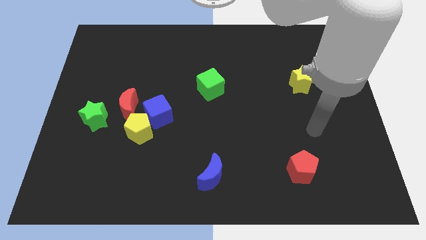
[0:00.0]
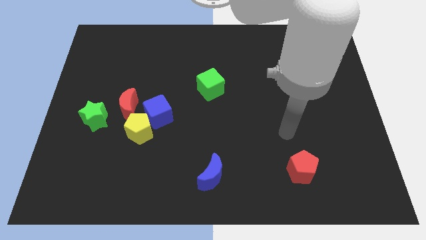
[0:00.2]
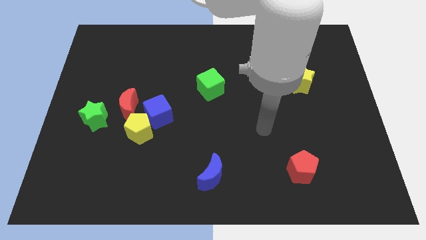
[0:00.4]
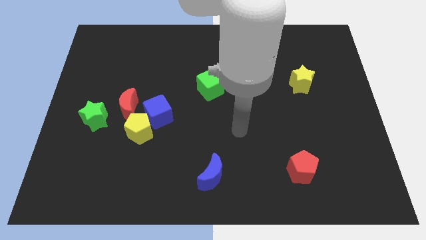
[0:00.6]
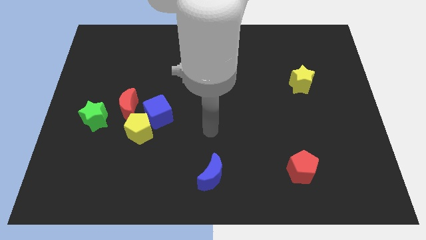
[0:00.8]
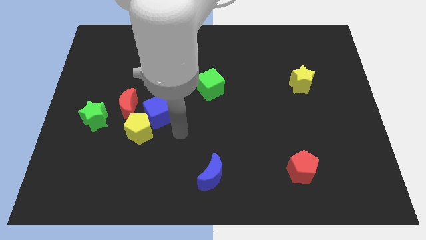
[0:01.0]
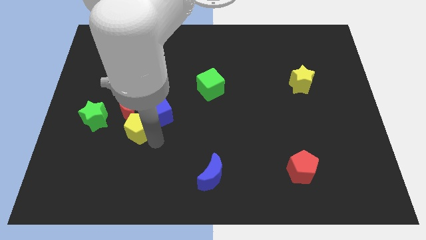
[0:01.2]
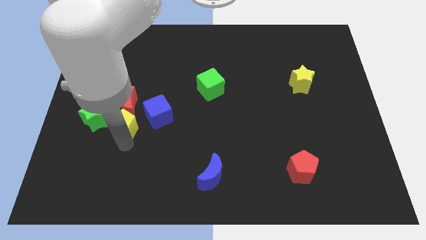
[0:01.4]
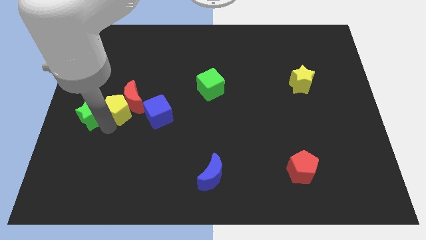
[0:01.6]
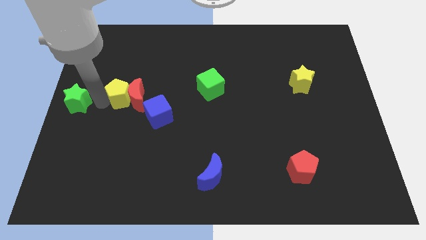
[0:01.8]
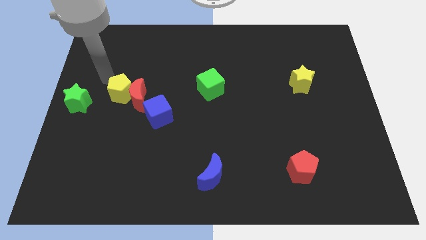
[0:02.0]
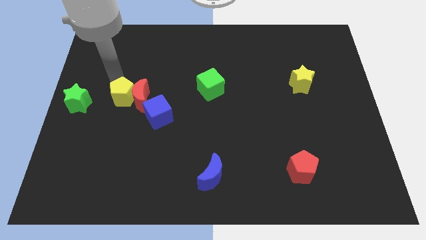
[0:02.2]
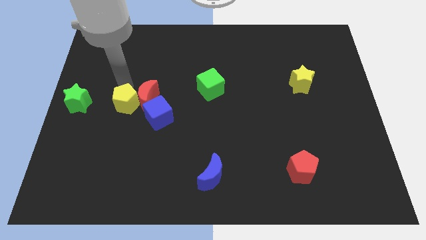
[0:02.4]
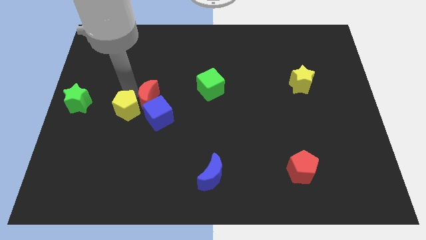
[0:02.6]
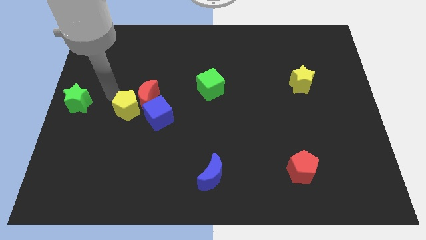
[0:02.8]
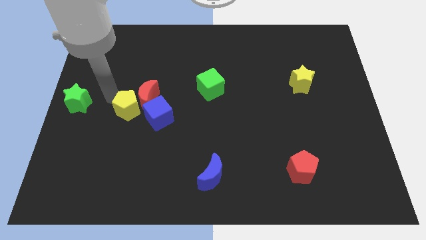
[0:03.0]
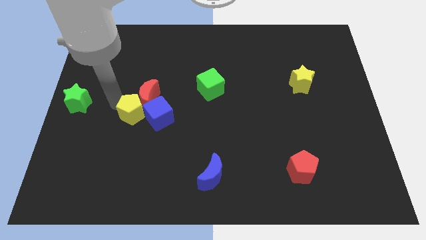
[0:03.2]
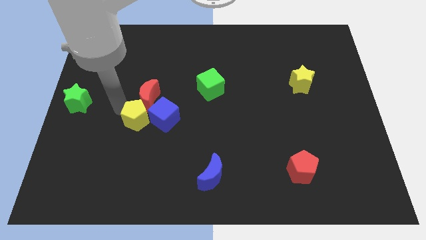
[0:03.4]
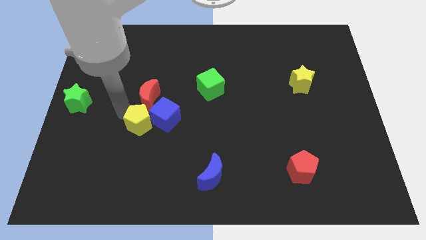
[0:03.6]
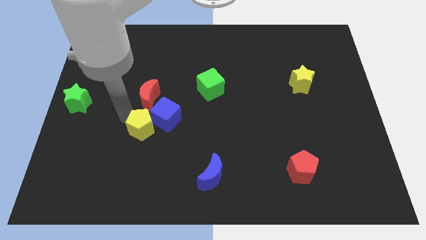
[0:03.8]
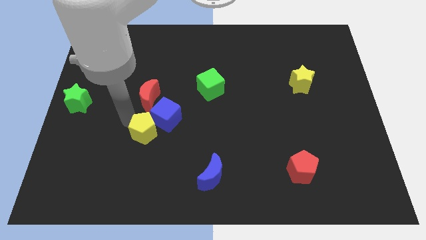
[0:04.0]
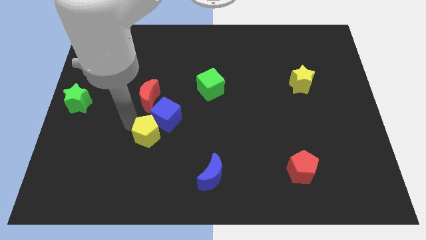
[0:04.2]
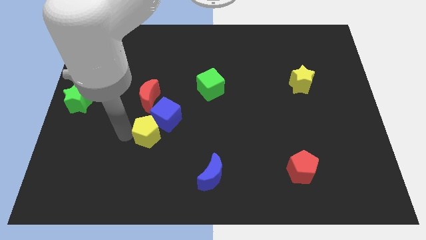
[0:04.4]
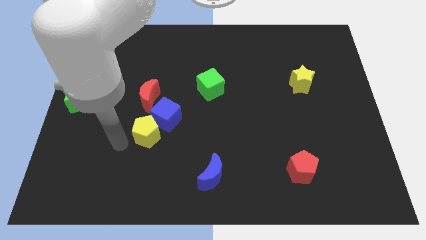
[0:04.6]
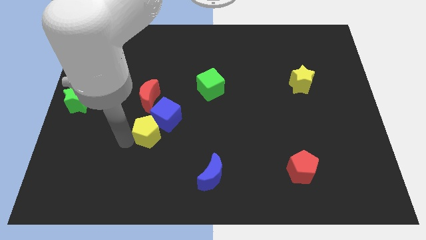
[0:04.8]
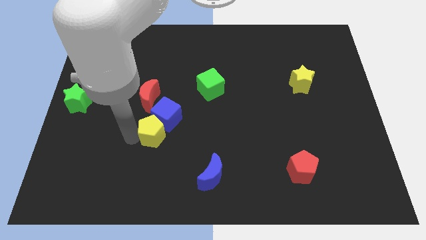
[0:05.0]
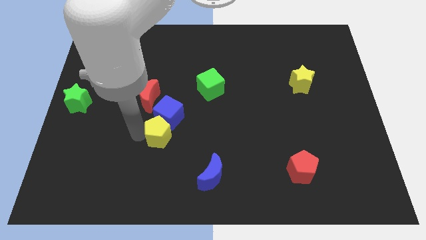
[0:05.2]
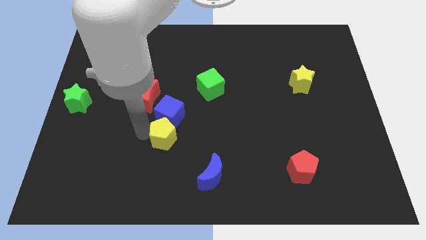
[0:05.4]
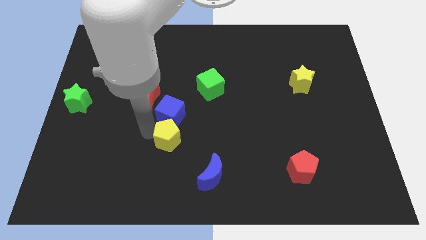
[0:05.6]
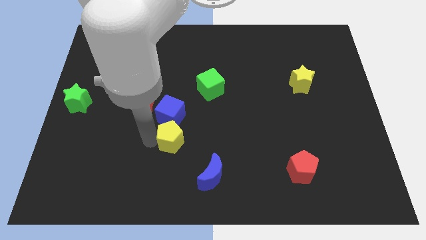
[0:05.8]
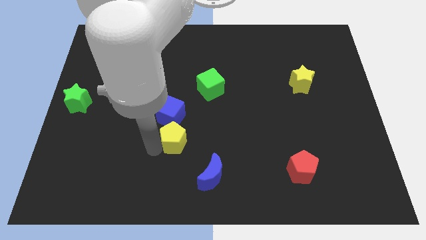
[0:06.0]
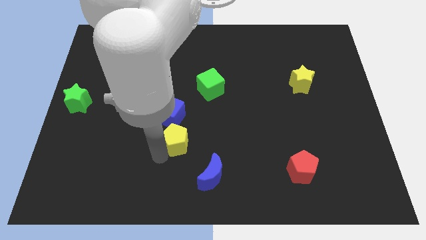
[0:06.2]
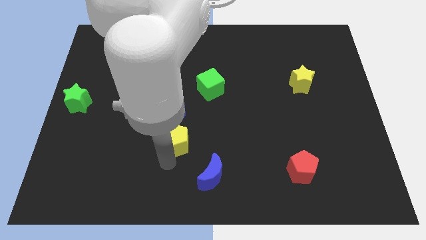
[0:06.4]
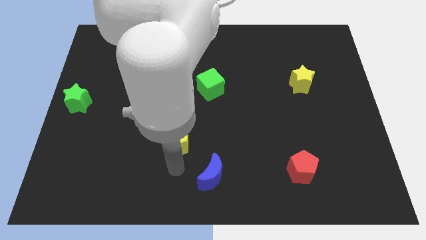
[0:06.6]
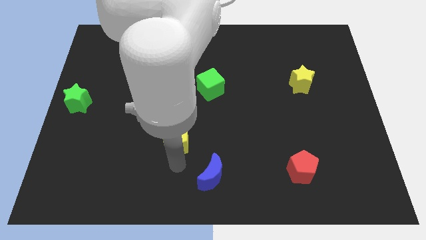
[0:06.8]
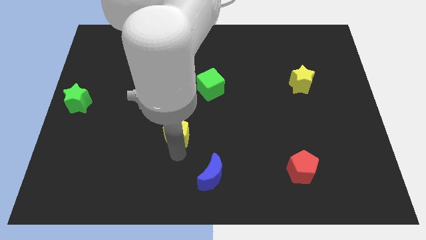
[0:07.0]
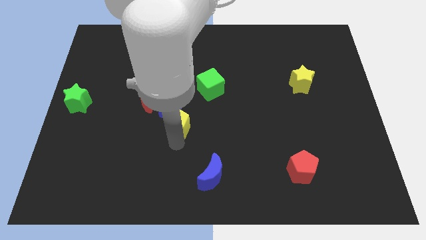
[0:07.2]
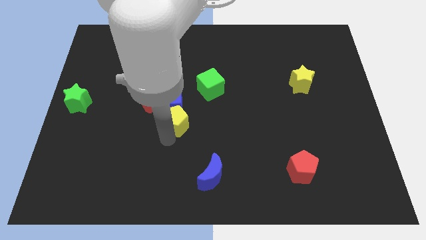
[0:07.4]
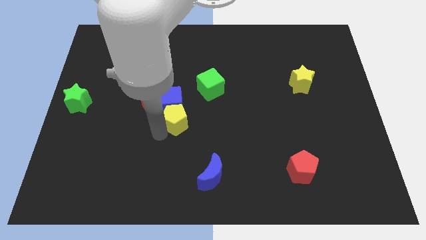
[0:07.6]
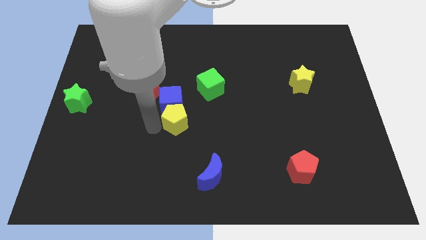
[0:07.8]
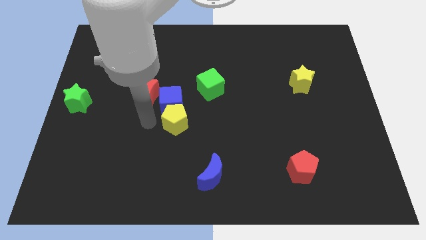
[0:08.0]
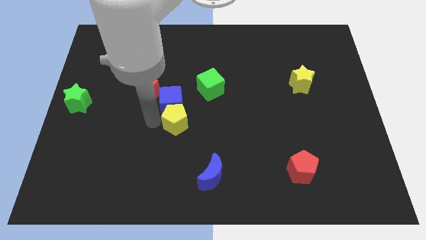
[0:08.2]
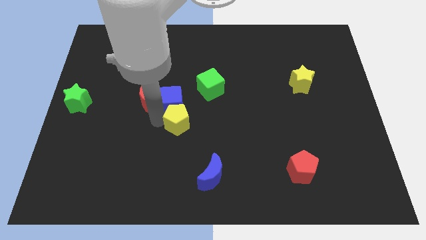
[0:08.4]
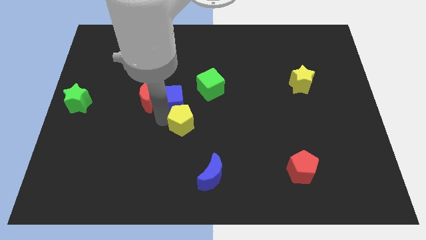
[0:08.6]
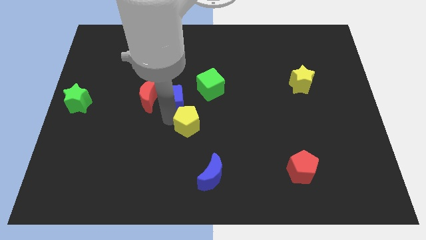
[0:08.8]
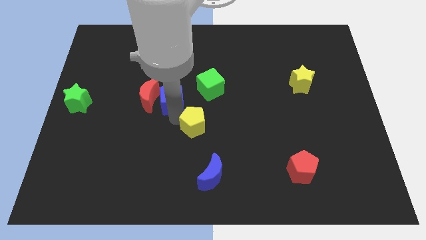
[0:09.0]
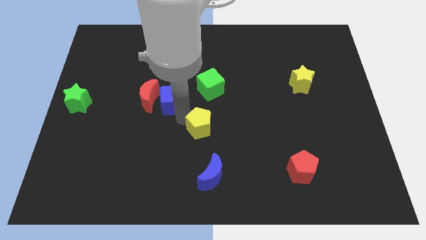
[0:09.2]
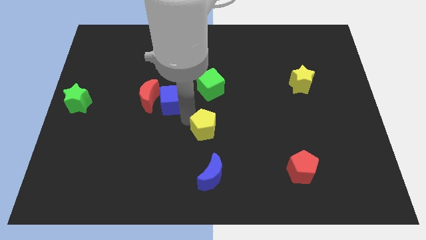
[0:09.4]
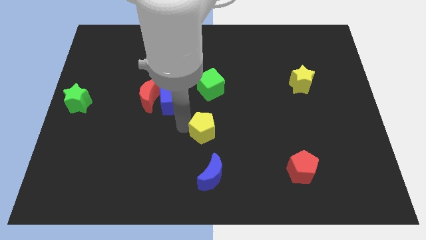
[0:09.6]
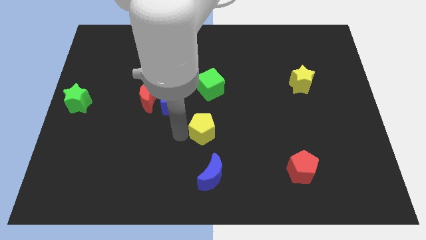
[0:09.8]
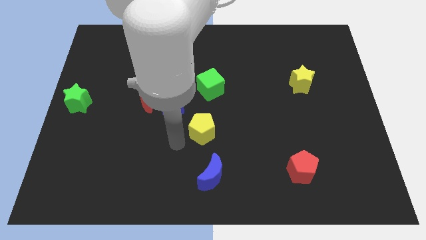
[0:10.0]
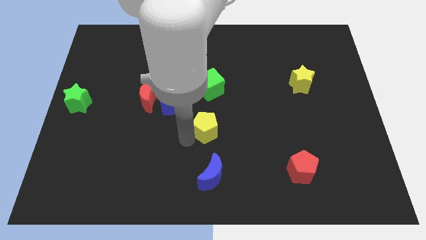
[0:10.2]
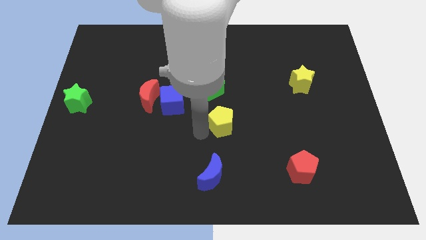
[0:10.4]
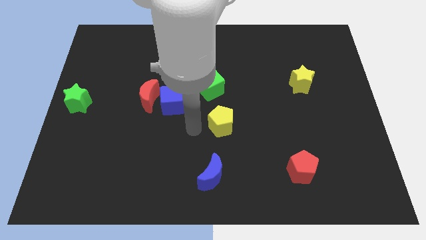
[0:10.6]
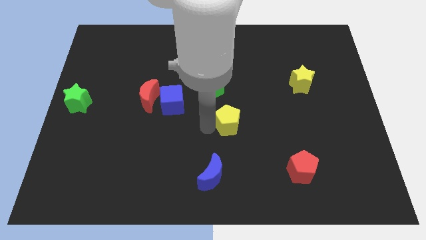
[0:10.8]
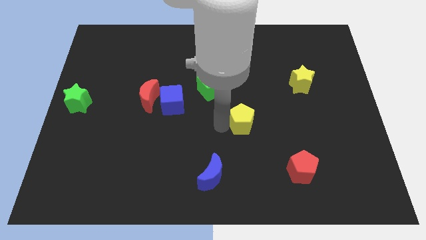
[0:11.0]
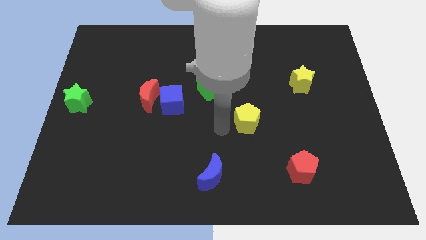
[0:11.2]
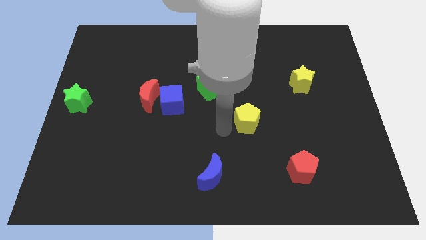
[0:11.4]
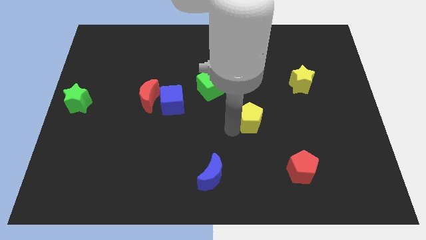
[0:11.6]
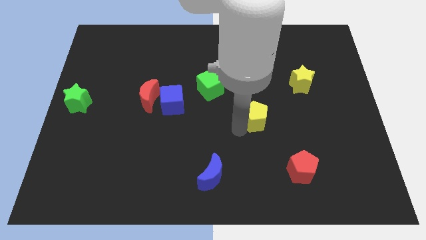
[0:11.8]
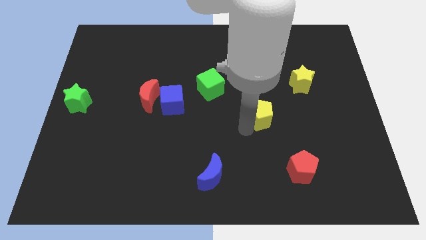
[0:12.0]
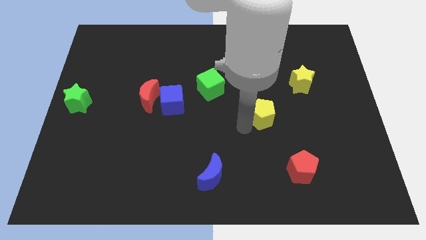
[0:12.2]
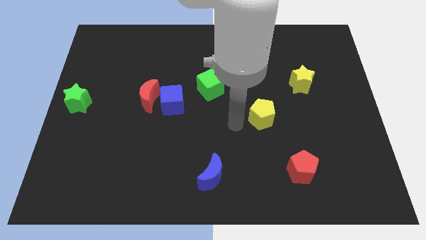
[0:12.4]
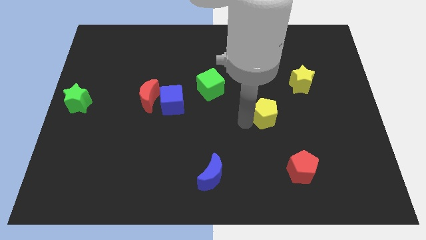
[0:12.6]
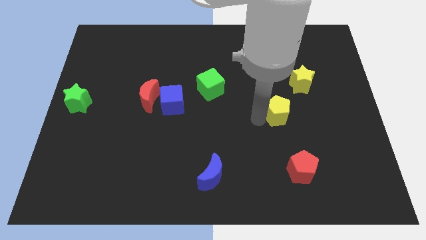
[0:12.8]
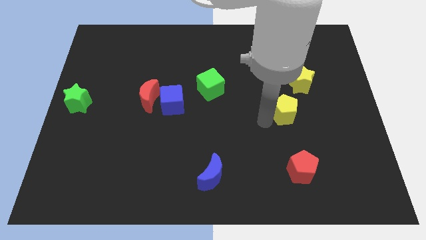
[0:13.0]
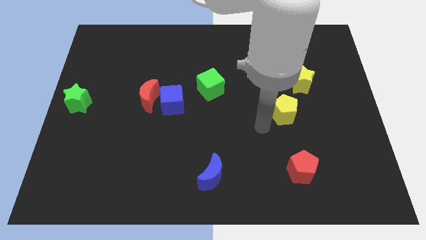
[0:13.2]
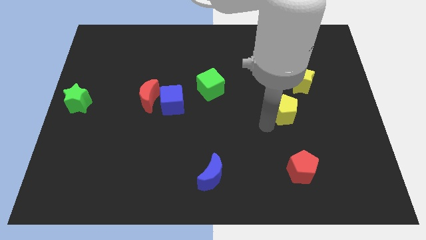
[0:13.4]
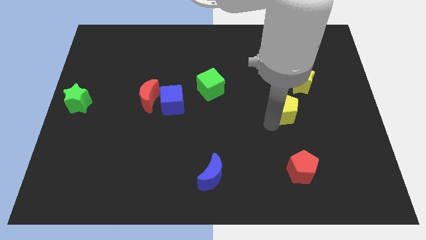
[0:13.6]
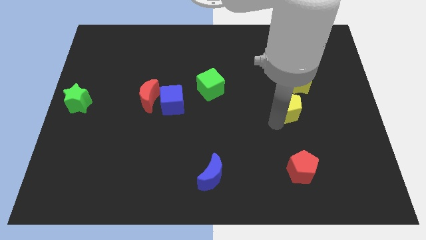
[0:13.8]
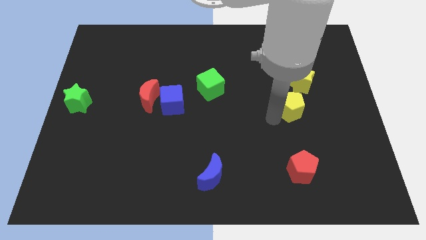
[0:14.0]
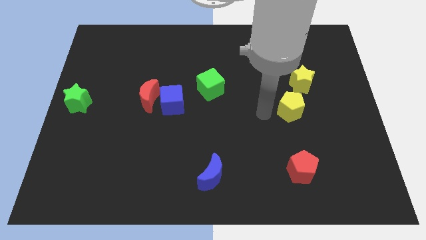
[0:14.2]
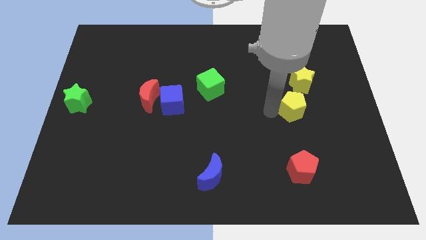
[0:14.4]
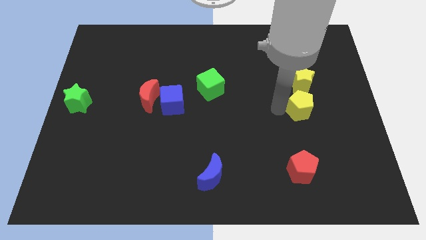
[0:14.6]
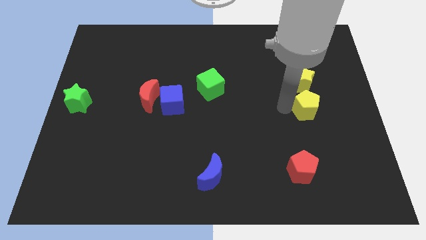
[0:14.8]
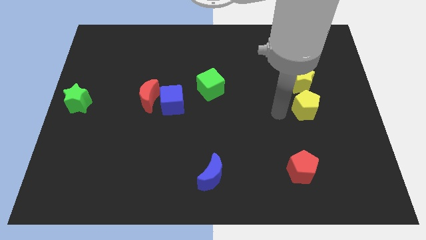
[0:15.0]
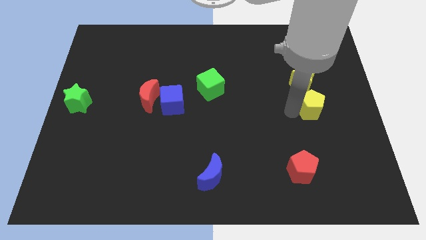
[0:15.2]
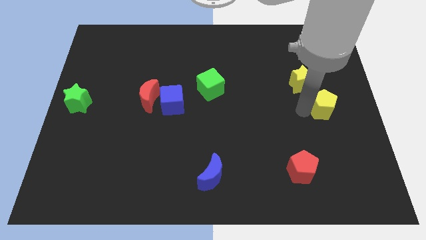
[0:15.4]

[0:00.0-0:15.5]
slide the yellow pentagon to the right side
